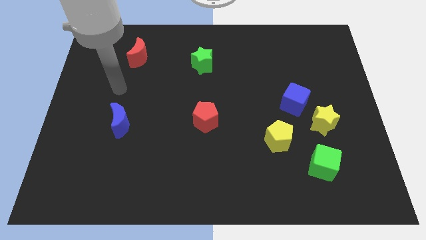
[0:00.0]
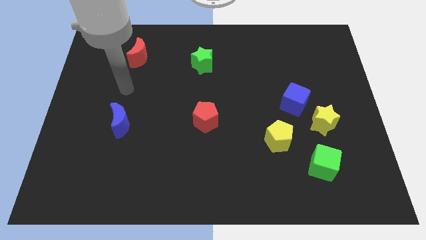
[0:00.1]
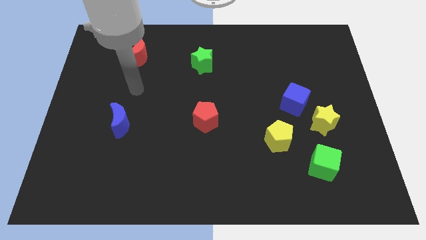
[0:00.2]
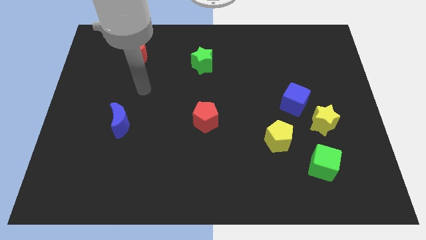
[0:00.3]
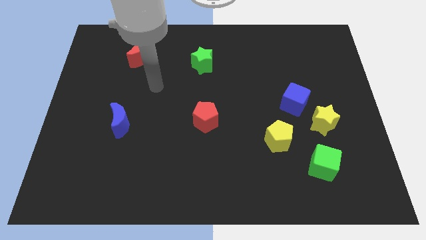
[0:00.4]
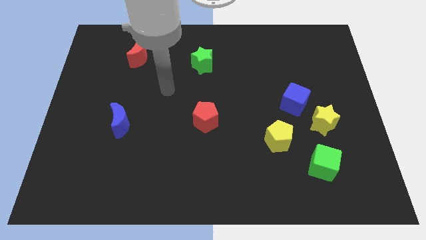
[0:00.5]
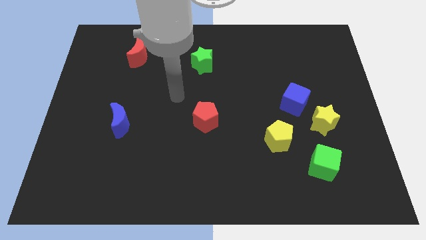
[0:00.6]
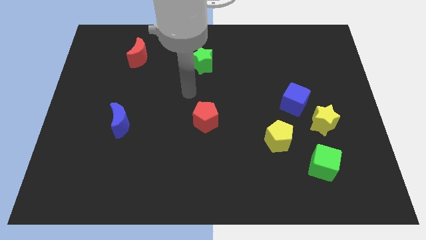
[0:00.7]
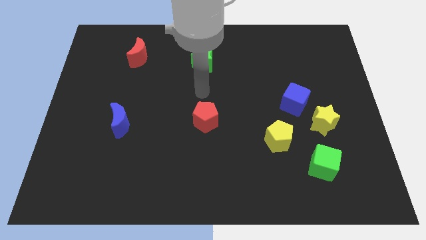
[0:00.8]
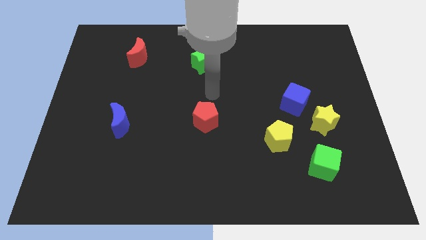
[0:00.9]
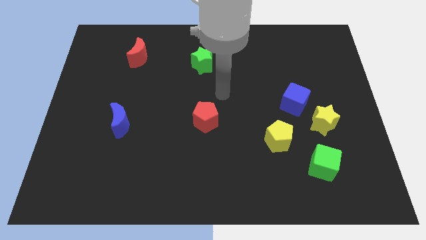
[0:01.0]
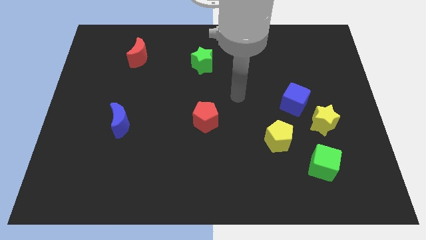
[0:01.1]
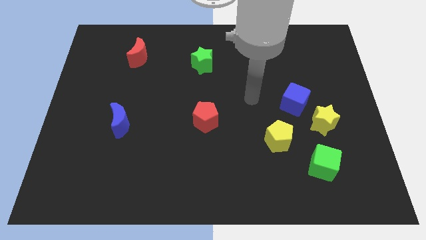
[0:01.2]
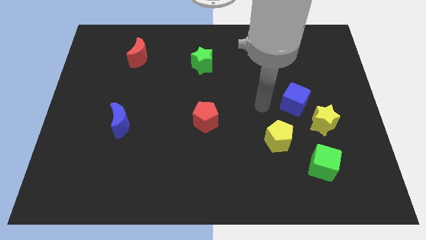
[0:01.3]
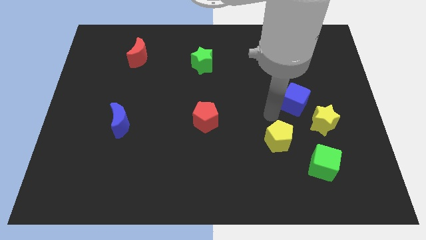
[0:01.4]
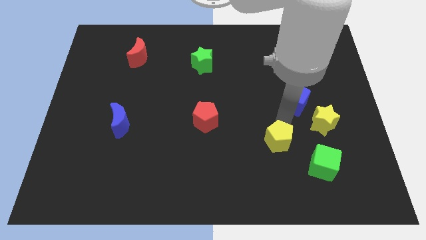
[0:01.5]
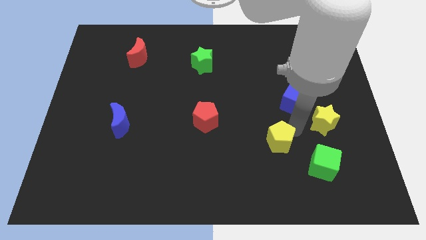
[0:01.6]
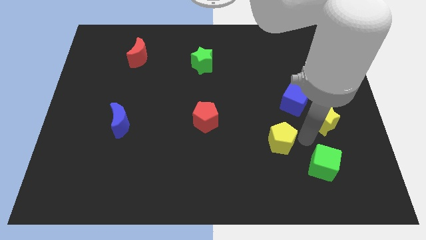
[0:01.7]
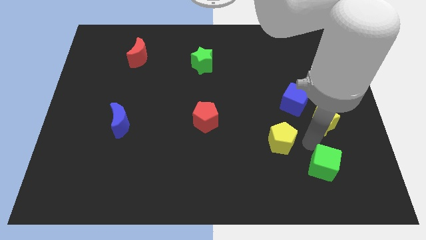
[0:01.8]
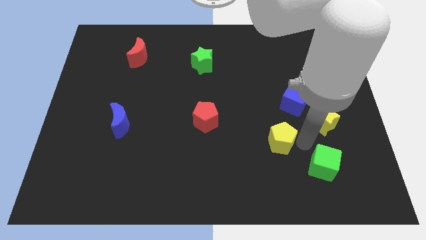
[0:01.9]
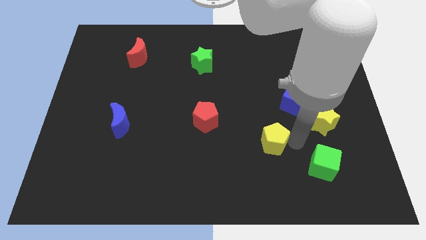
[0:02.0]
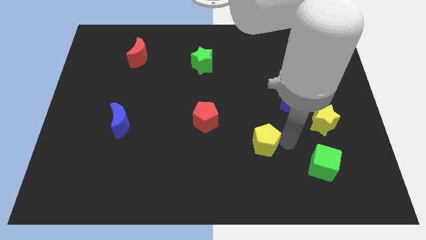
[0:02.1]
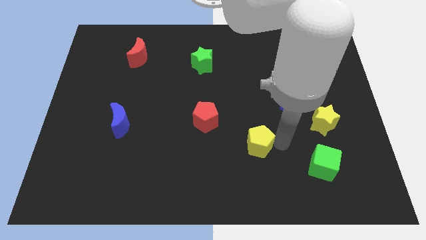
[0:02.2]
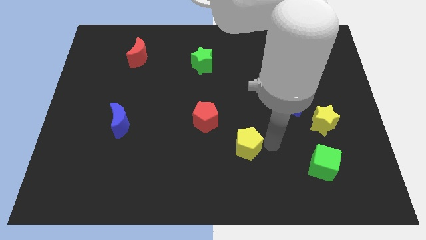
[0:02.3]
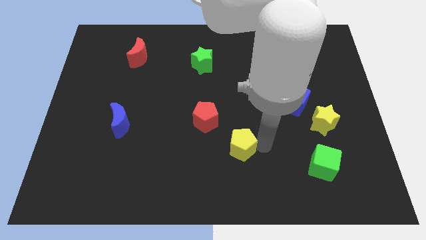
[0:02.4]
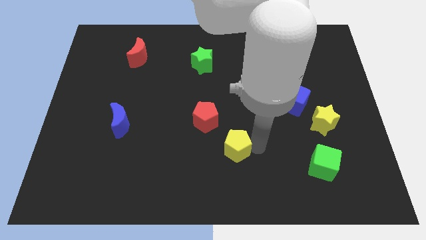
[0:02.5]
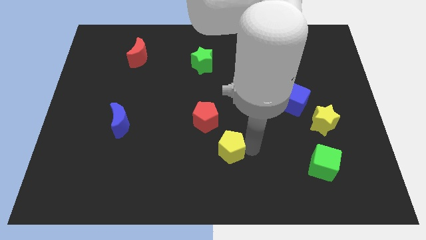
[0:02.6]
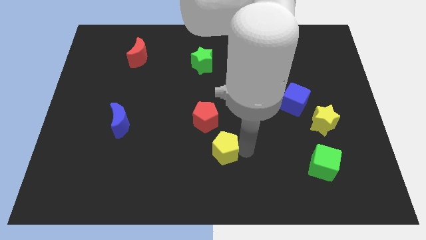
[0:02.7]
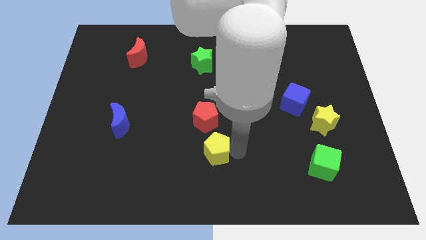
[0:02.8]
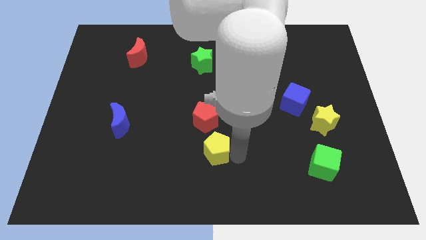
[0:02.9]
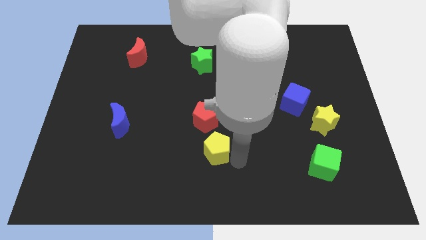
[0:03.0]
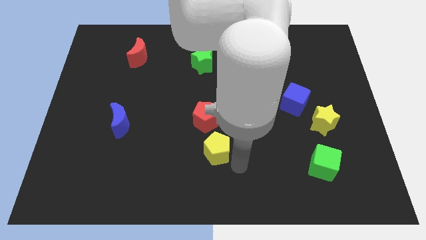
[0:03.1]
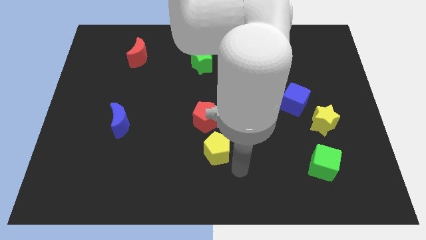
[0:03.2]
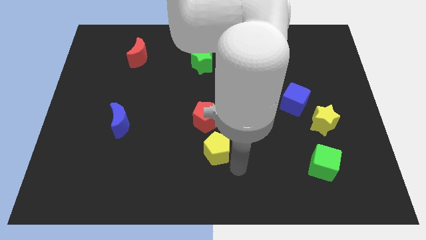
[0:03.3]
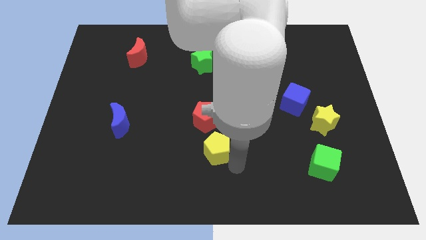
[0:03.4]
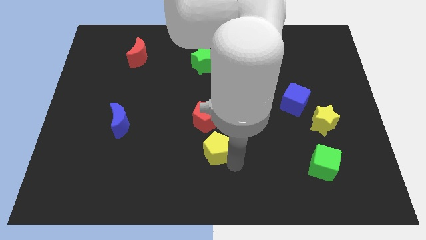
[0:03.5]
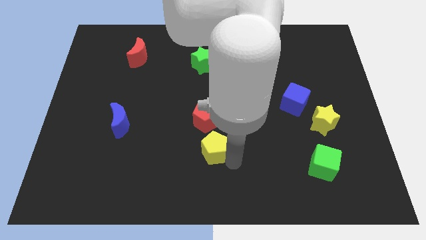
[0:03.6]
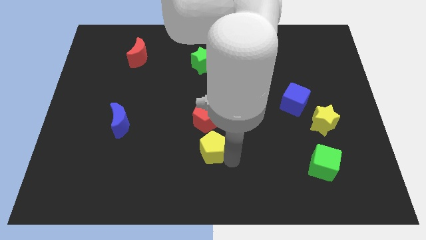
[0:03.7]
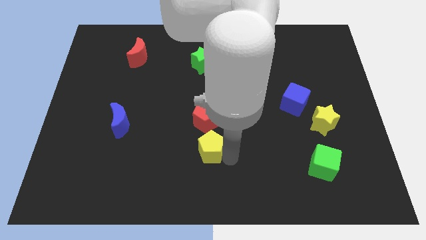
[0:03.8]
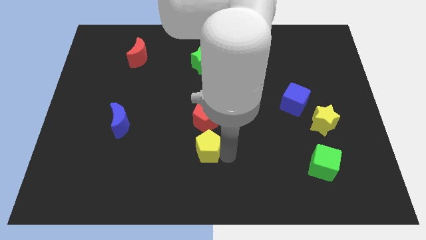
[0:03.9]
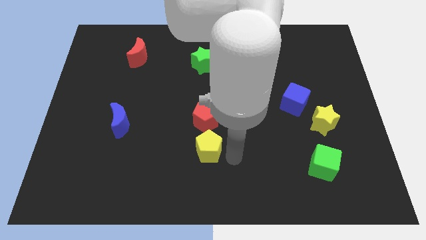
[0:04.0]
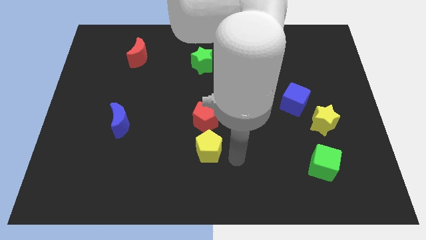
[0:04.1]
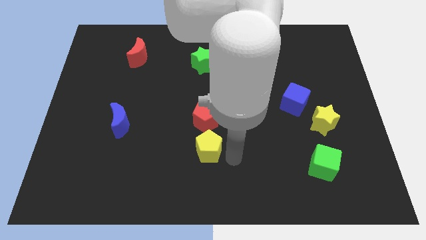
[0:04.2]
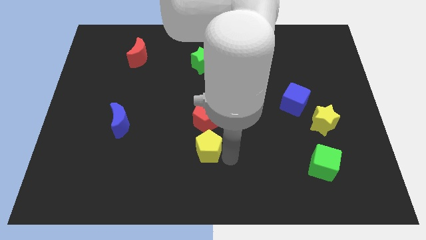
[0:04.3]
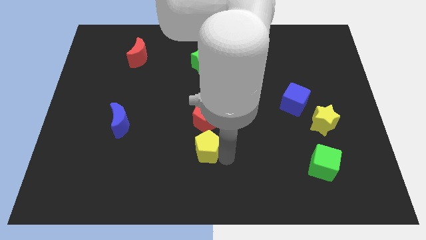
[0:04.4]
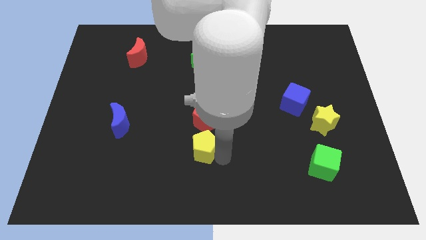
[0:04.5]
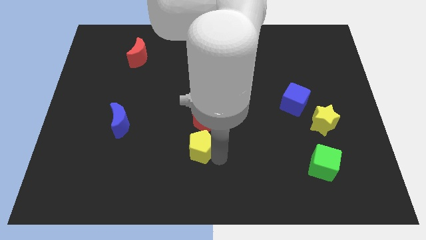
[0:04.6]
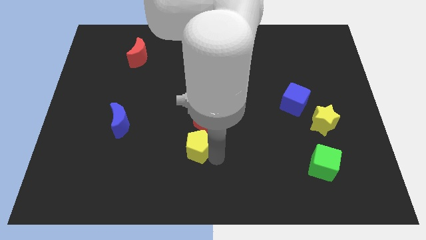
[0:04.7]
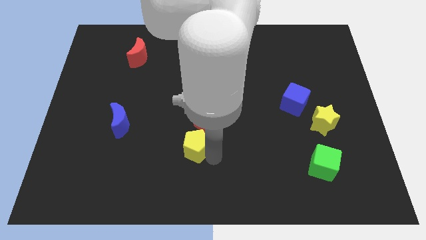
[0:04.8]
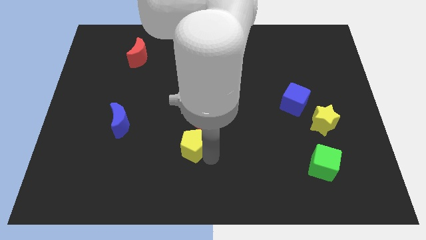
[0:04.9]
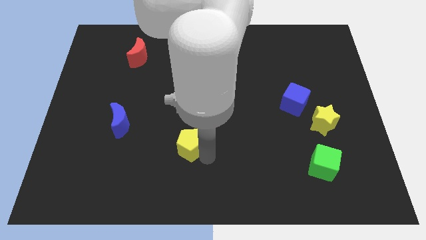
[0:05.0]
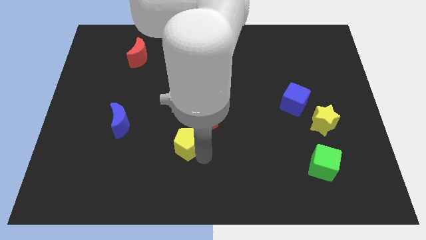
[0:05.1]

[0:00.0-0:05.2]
move the yellow pentagon to the left

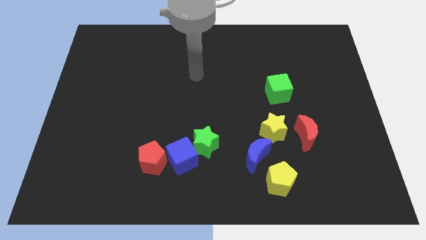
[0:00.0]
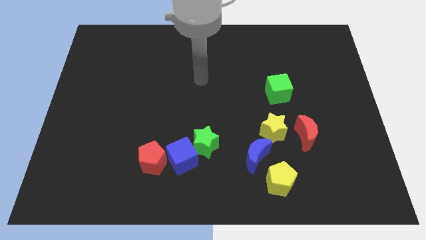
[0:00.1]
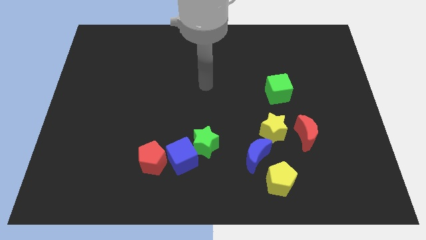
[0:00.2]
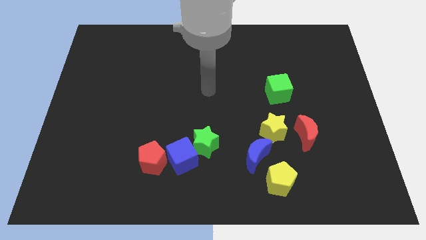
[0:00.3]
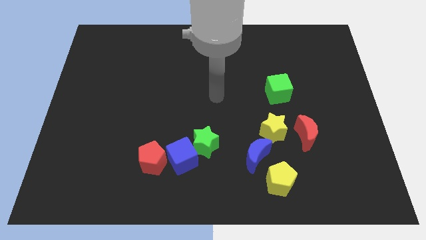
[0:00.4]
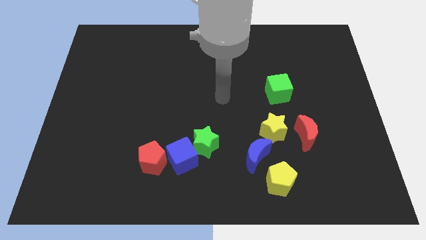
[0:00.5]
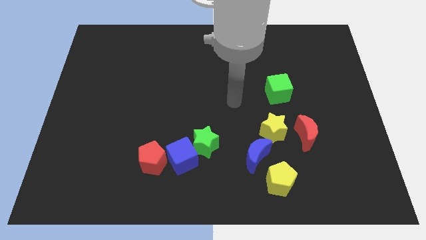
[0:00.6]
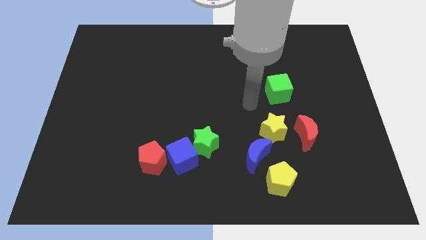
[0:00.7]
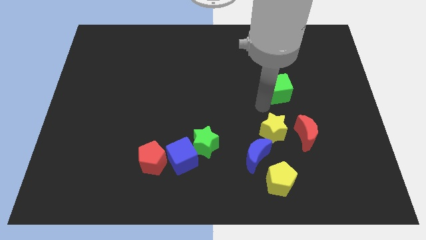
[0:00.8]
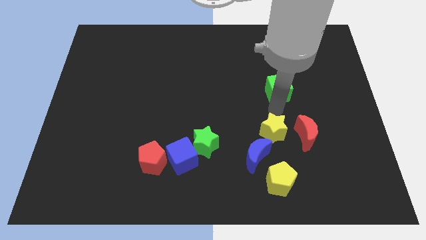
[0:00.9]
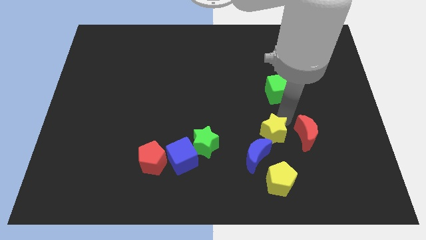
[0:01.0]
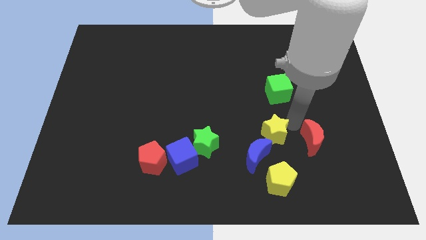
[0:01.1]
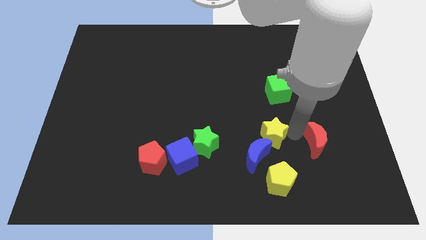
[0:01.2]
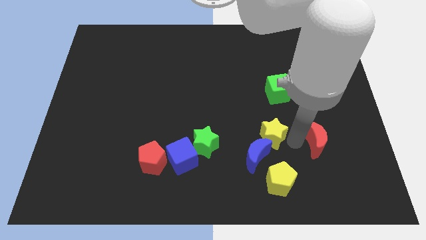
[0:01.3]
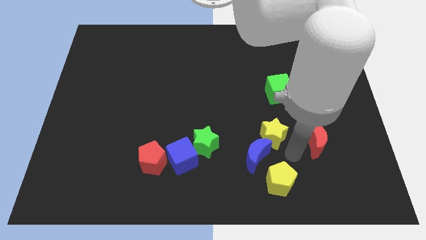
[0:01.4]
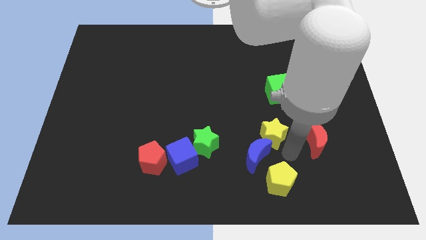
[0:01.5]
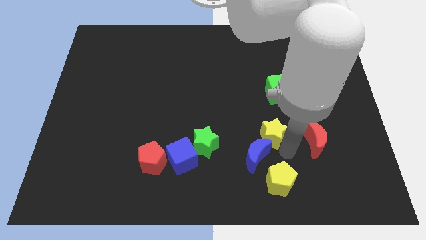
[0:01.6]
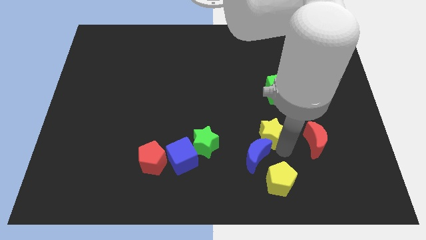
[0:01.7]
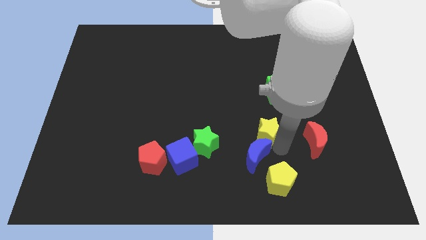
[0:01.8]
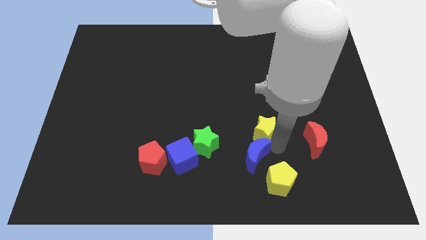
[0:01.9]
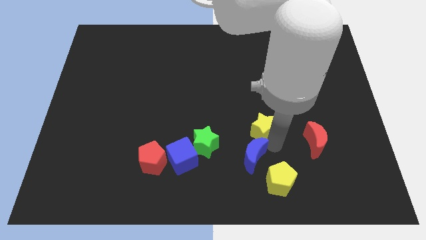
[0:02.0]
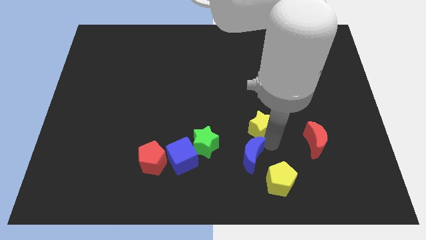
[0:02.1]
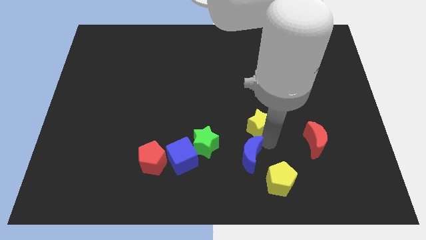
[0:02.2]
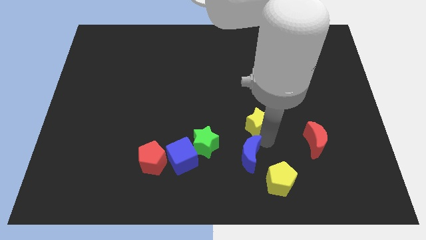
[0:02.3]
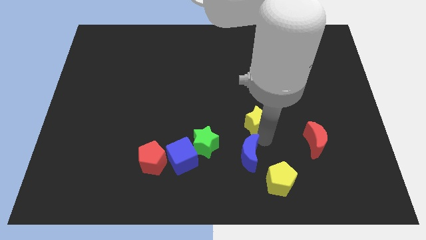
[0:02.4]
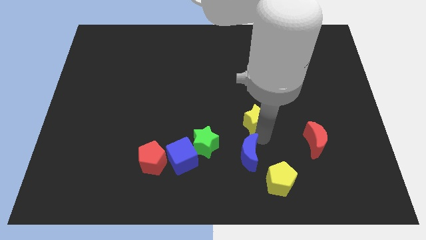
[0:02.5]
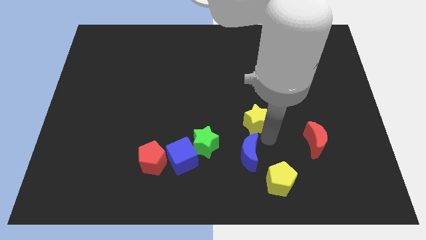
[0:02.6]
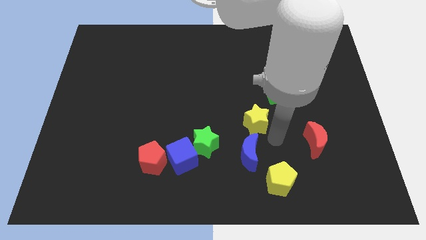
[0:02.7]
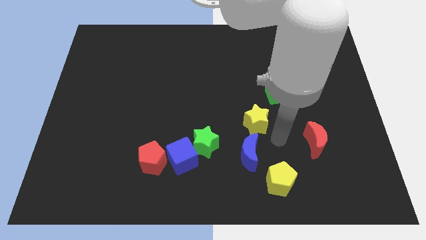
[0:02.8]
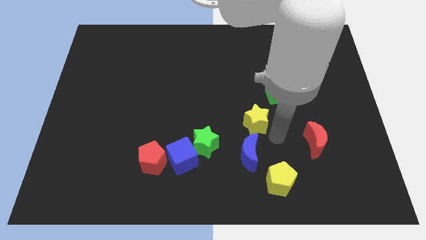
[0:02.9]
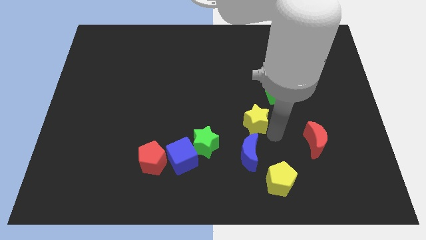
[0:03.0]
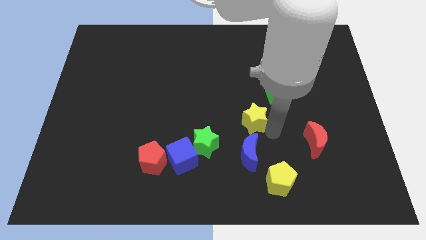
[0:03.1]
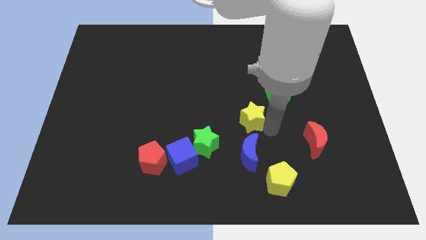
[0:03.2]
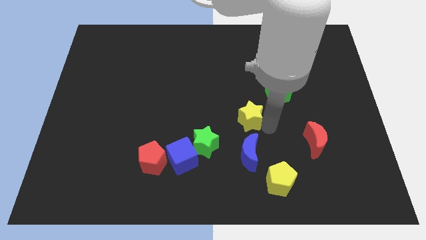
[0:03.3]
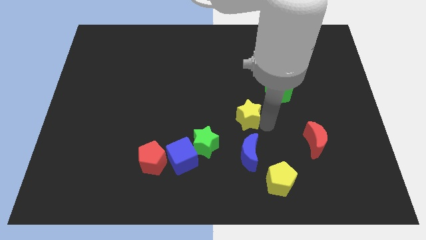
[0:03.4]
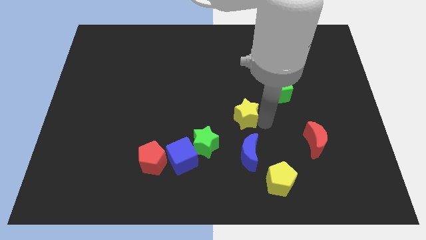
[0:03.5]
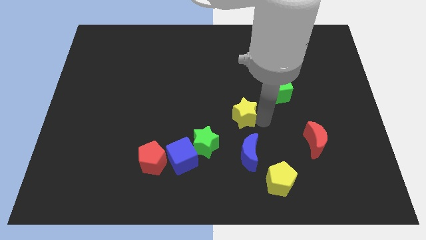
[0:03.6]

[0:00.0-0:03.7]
slightly move the yellow star upwards and then left
